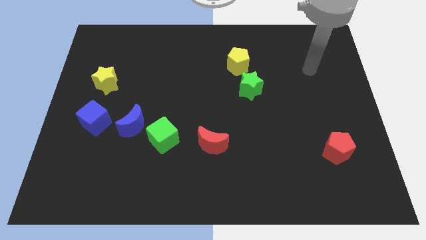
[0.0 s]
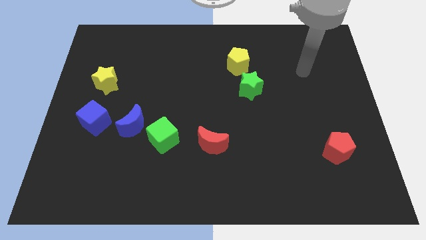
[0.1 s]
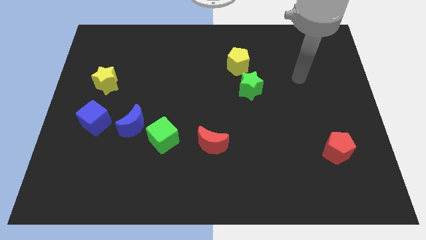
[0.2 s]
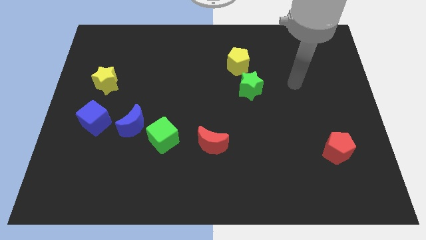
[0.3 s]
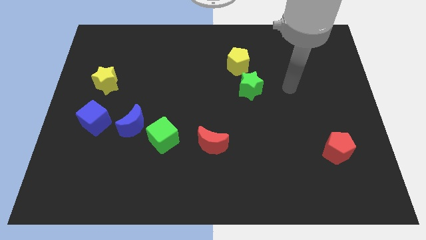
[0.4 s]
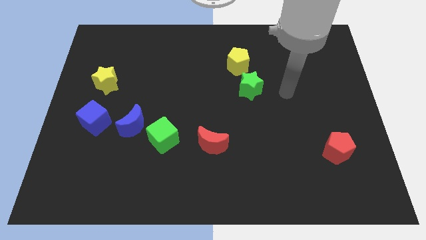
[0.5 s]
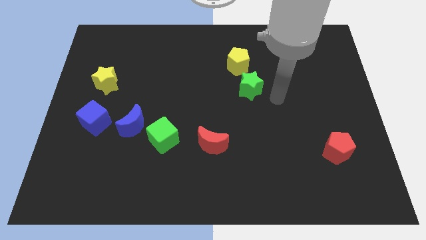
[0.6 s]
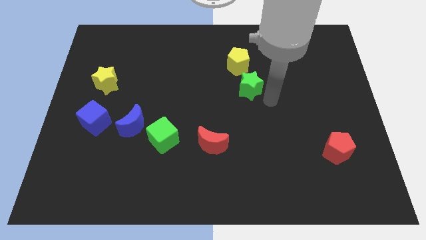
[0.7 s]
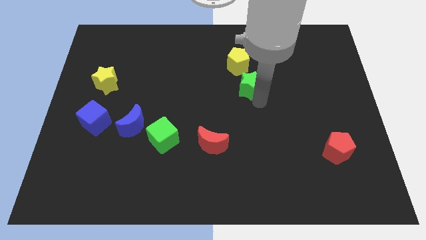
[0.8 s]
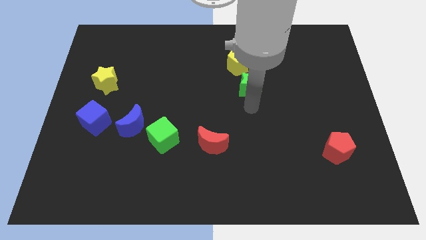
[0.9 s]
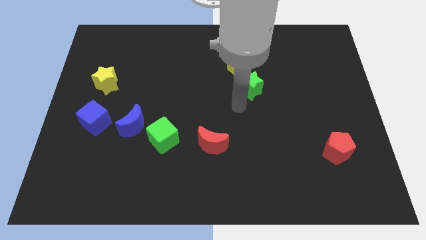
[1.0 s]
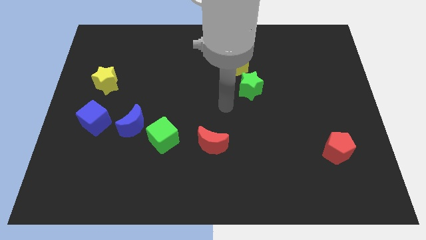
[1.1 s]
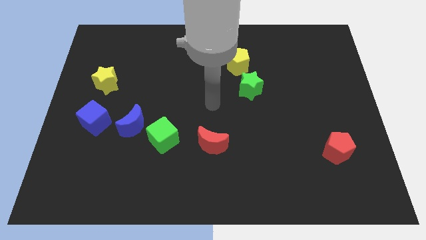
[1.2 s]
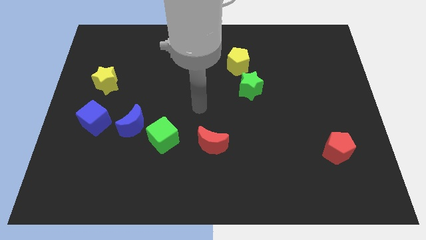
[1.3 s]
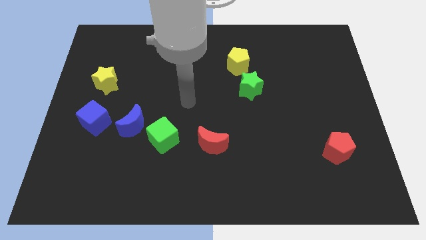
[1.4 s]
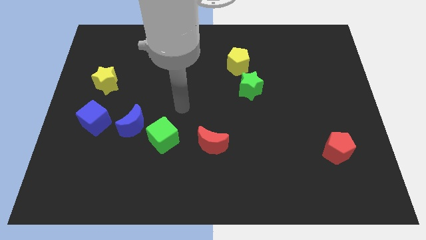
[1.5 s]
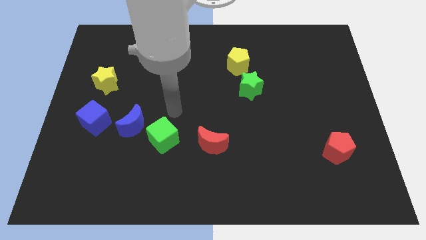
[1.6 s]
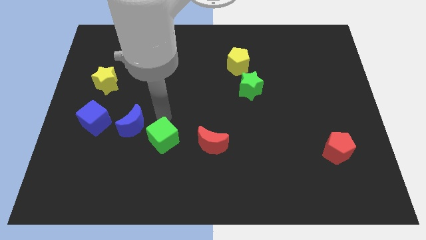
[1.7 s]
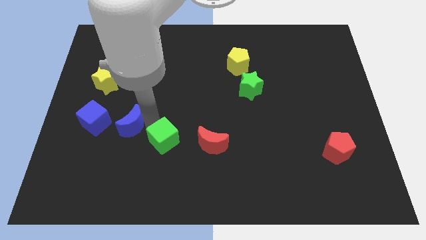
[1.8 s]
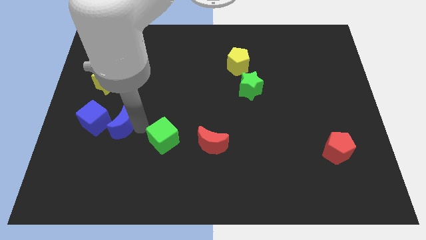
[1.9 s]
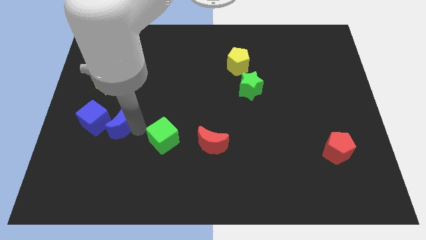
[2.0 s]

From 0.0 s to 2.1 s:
pull the green cube apart from the blue moon

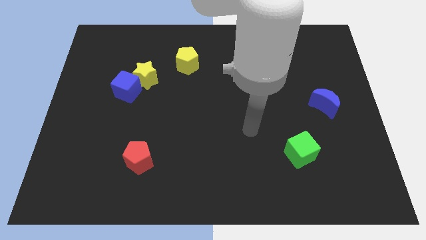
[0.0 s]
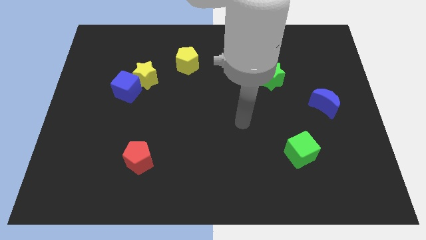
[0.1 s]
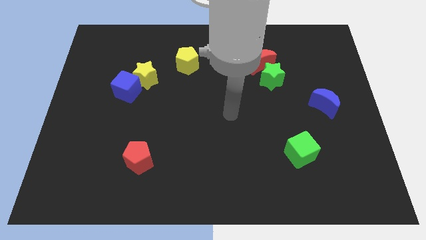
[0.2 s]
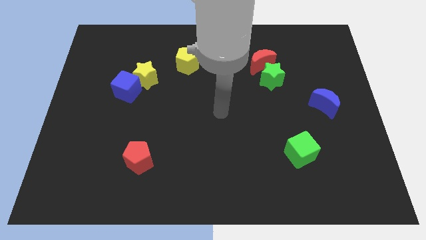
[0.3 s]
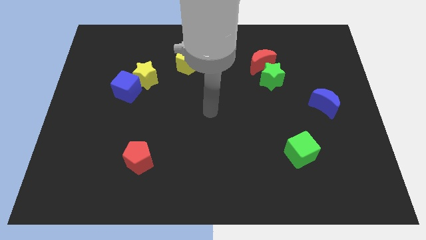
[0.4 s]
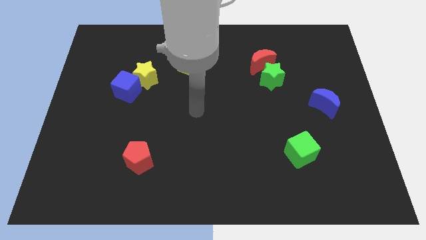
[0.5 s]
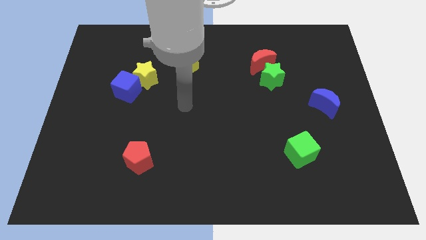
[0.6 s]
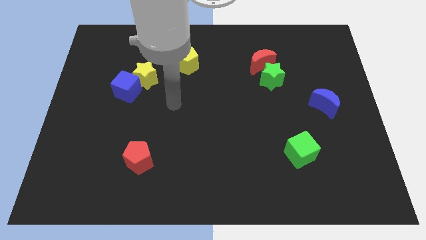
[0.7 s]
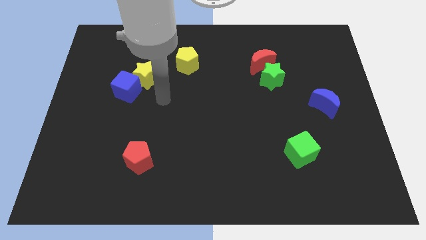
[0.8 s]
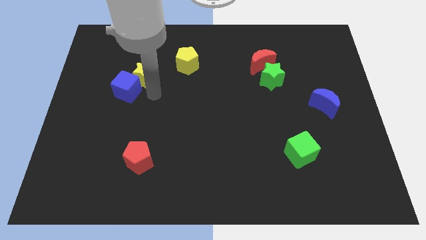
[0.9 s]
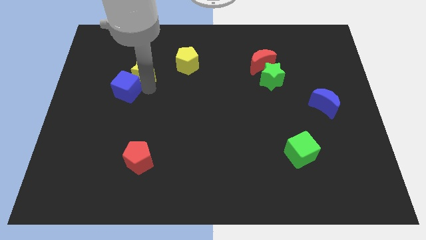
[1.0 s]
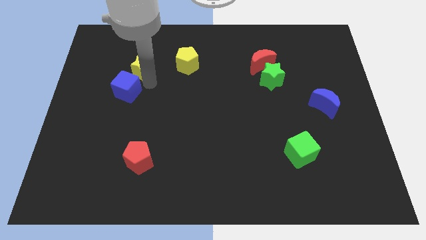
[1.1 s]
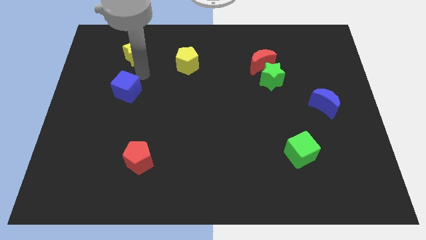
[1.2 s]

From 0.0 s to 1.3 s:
separate the blue cube from the yellow star

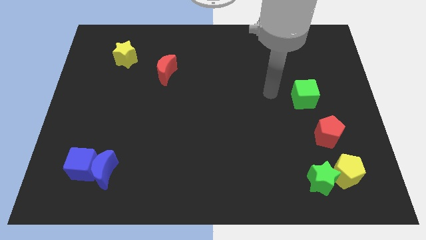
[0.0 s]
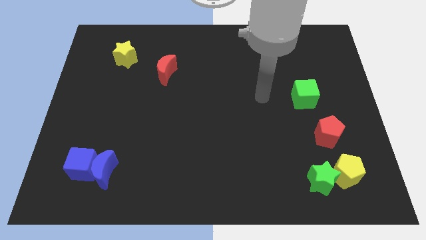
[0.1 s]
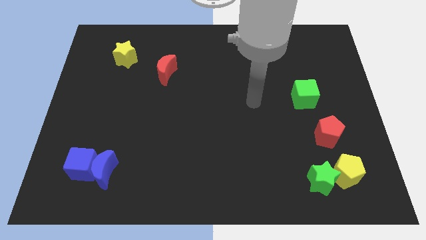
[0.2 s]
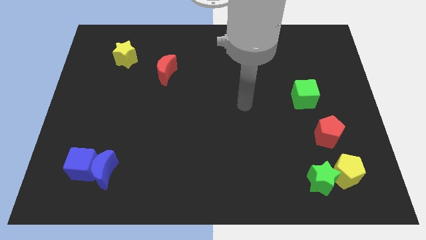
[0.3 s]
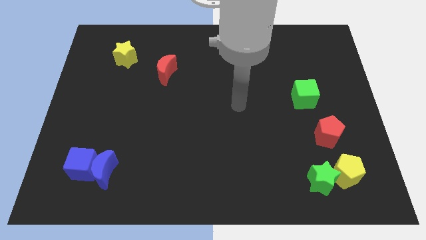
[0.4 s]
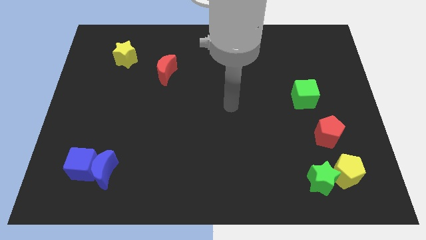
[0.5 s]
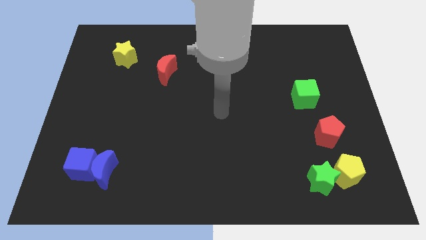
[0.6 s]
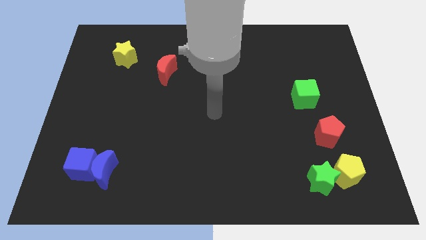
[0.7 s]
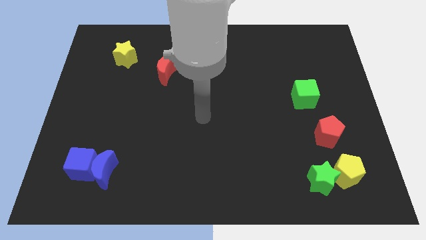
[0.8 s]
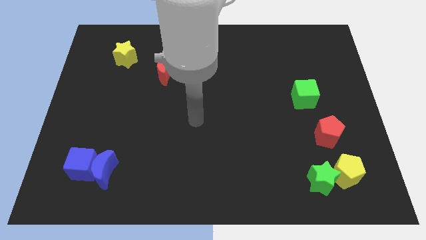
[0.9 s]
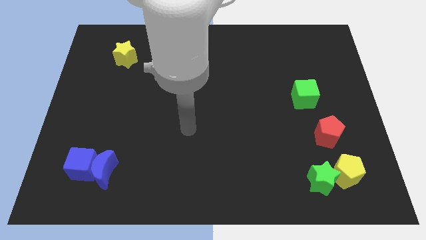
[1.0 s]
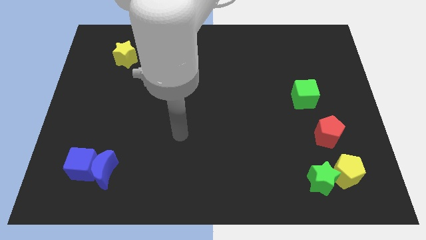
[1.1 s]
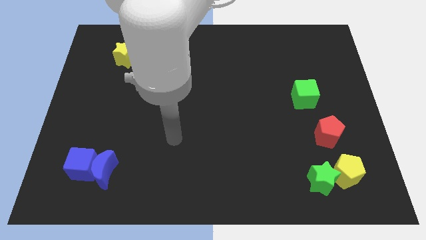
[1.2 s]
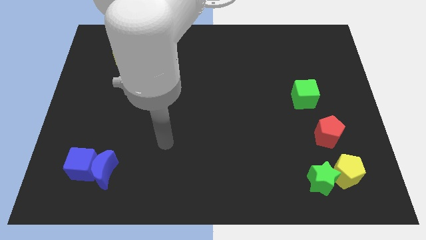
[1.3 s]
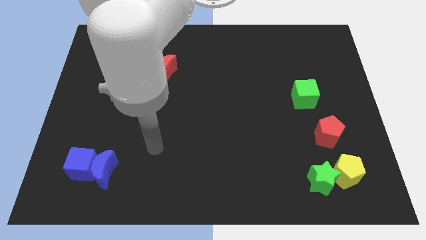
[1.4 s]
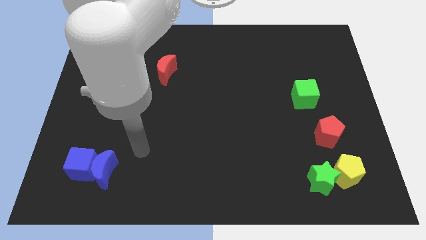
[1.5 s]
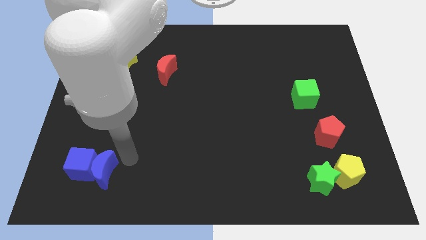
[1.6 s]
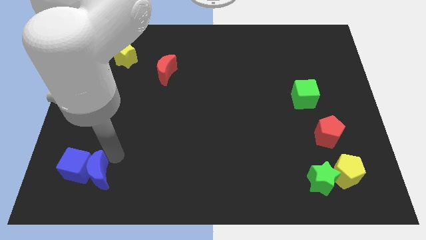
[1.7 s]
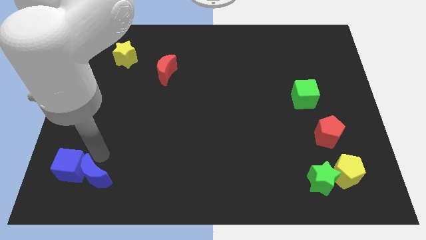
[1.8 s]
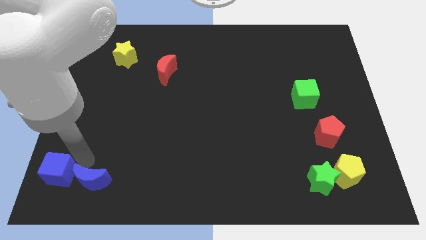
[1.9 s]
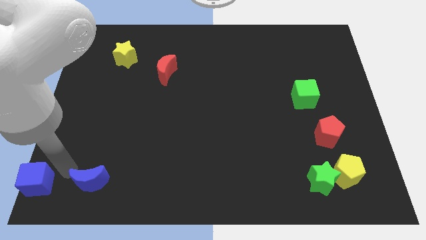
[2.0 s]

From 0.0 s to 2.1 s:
pull the blue moon apart from the blue cube

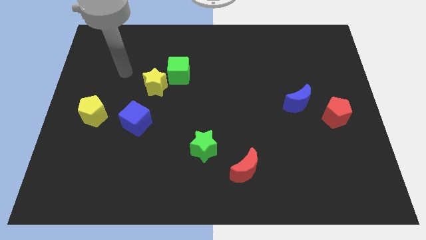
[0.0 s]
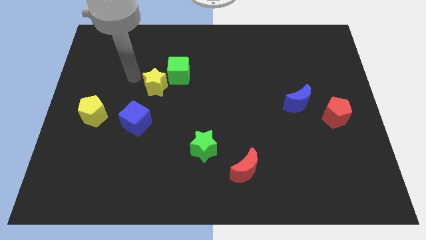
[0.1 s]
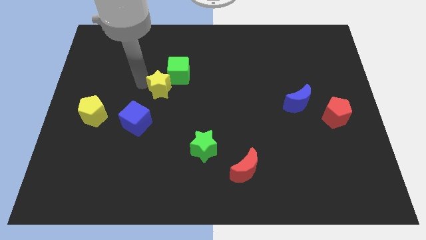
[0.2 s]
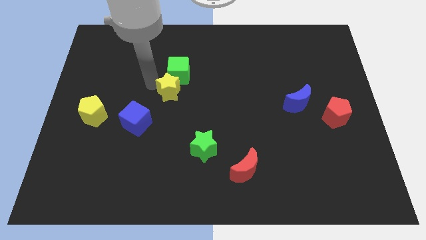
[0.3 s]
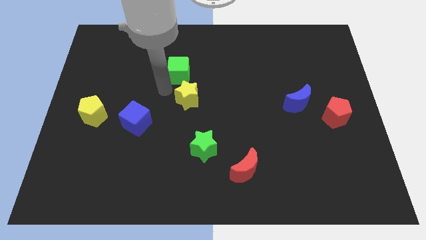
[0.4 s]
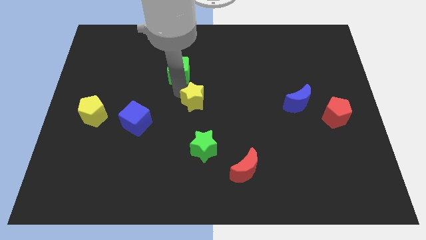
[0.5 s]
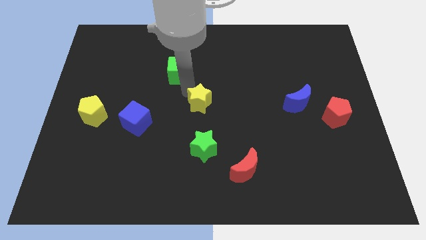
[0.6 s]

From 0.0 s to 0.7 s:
move the green cube away from the yellow star

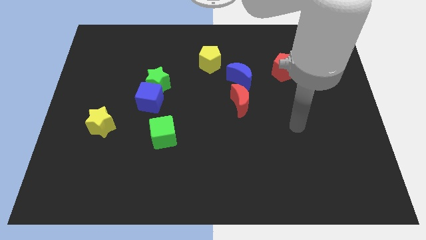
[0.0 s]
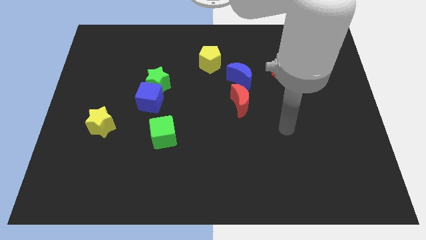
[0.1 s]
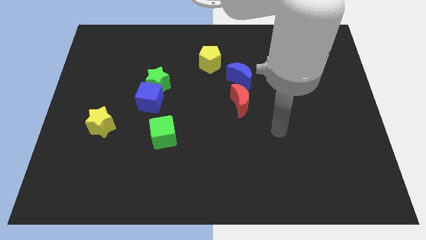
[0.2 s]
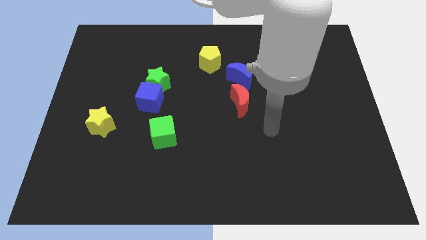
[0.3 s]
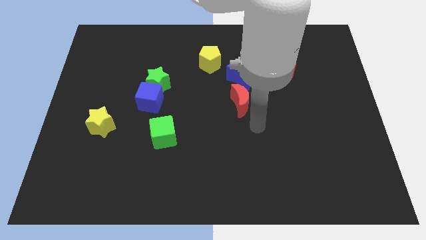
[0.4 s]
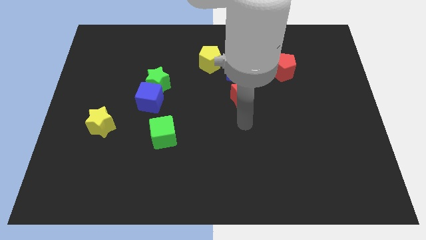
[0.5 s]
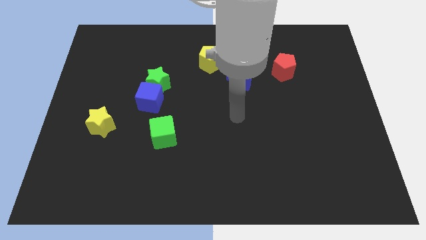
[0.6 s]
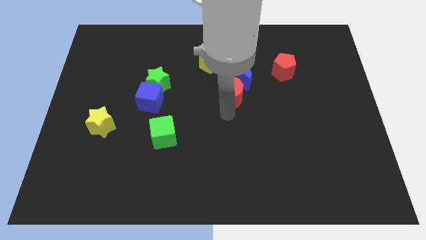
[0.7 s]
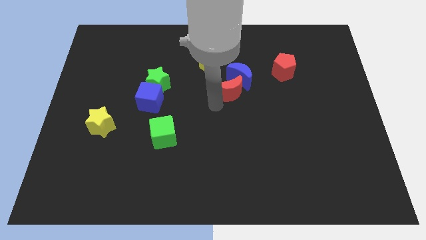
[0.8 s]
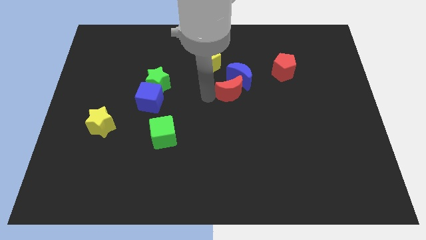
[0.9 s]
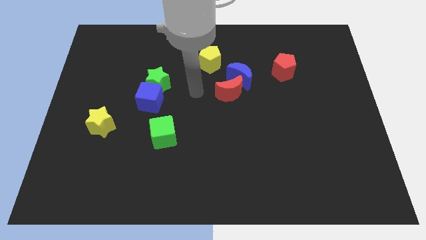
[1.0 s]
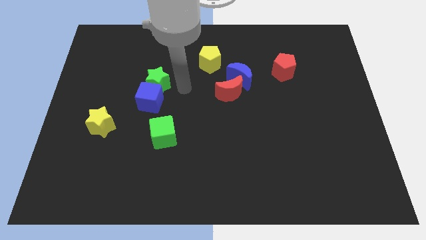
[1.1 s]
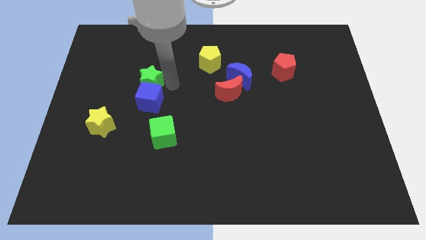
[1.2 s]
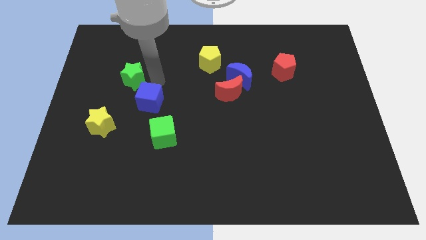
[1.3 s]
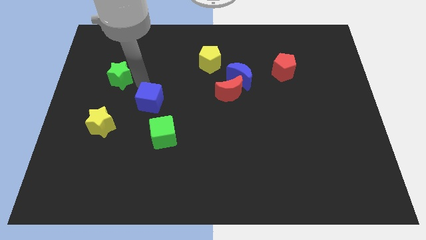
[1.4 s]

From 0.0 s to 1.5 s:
move the blue cube away from the green star

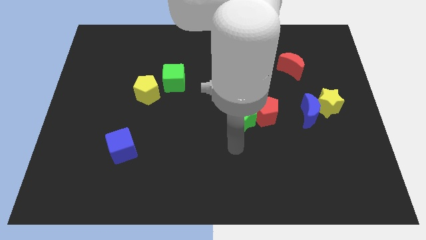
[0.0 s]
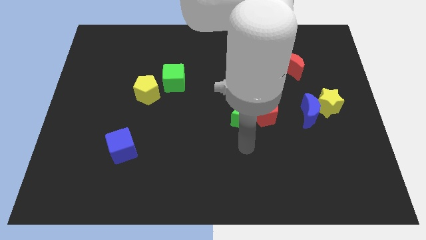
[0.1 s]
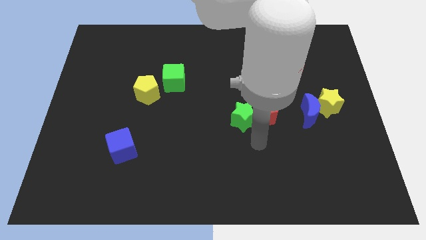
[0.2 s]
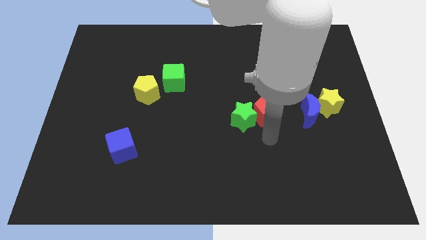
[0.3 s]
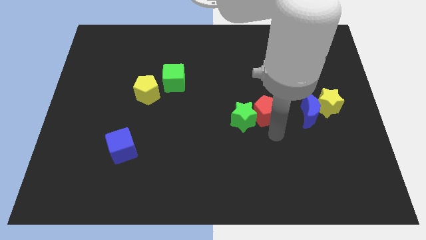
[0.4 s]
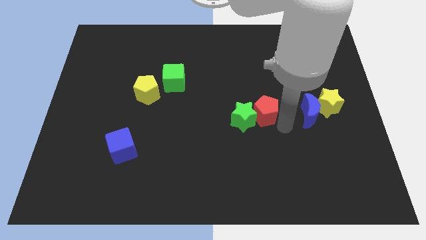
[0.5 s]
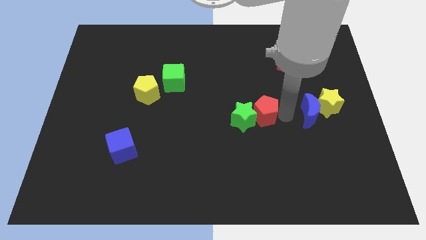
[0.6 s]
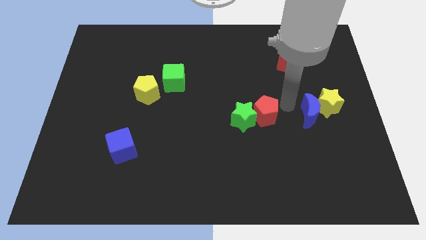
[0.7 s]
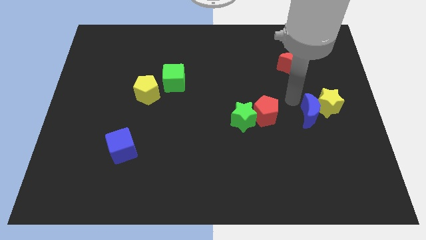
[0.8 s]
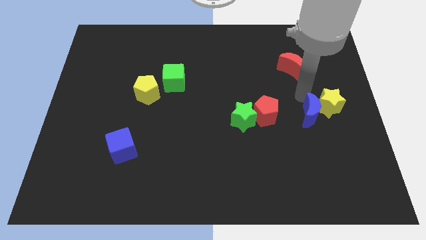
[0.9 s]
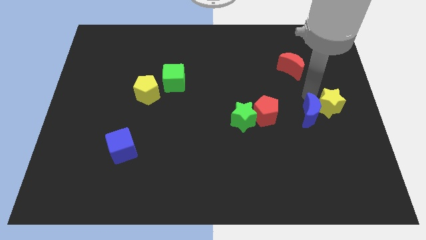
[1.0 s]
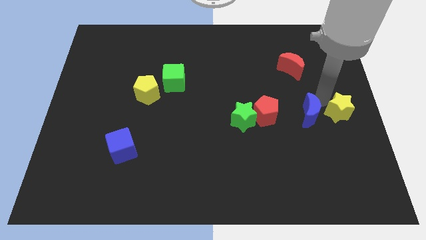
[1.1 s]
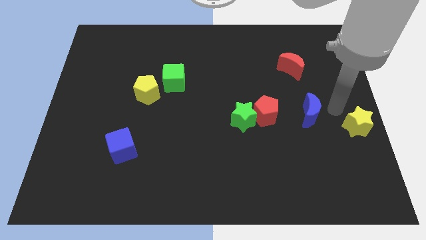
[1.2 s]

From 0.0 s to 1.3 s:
move the blue moon away from the yellow star

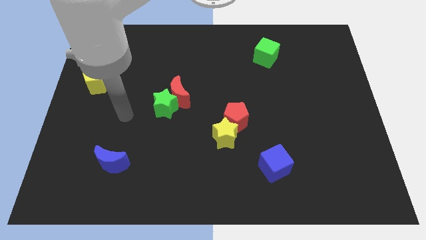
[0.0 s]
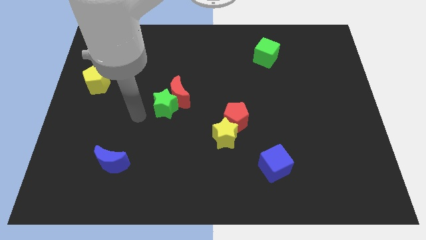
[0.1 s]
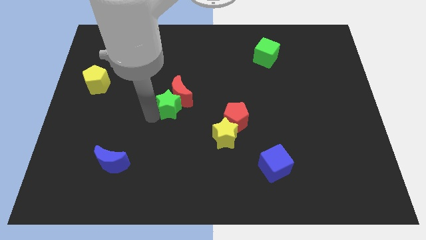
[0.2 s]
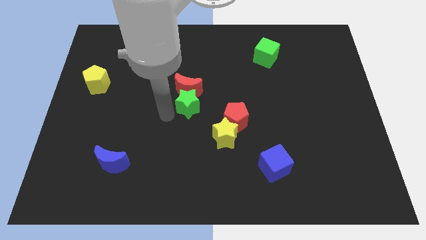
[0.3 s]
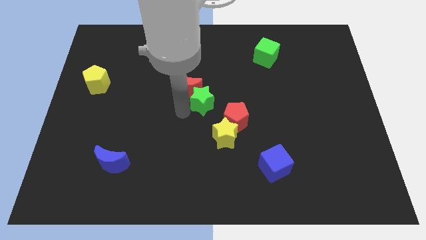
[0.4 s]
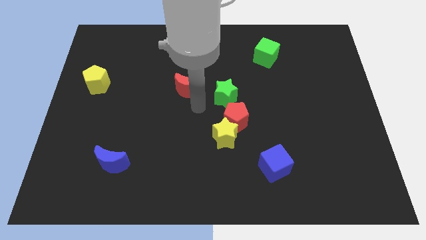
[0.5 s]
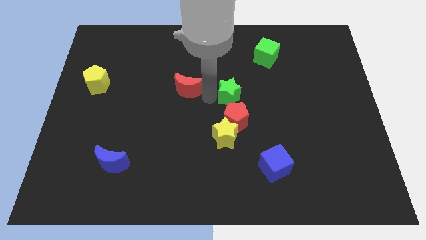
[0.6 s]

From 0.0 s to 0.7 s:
move the red moon away from the green star
